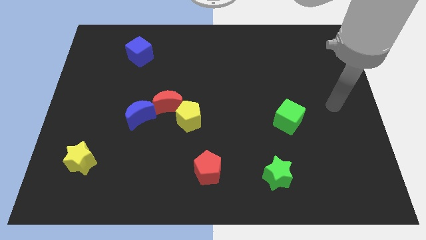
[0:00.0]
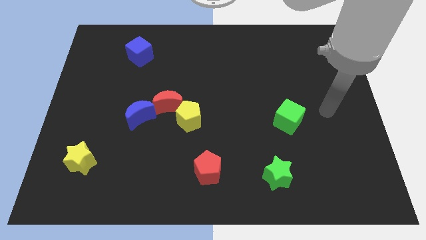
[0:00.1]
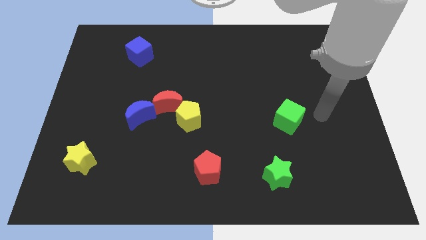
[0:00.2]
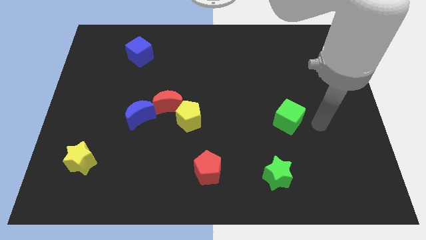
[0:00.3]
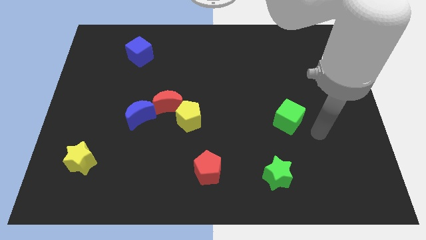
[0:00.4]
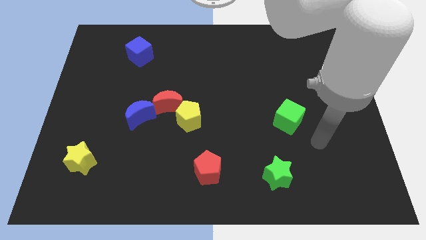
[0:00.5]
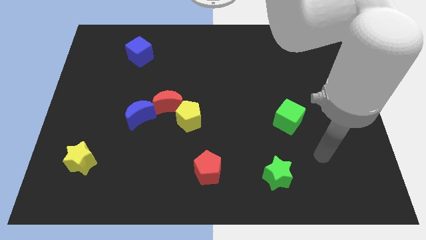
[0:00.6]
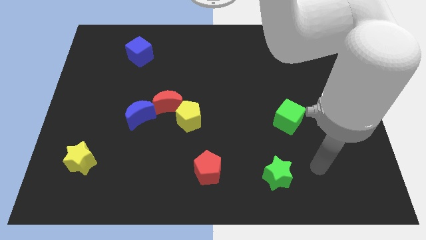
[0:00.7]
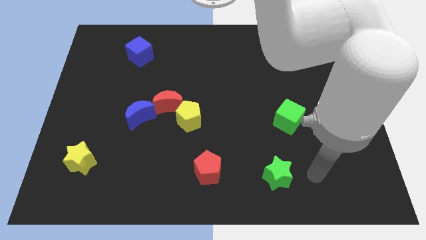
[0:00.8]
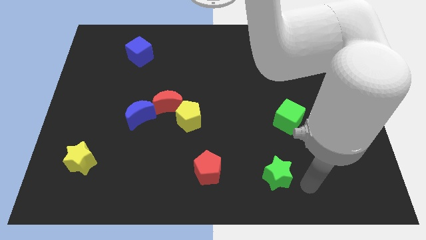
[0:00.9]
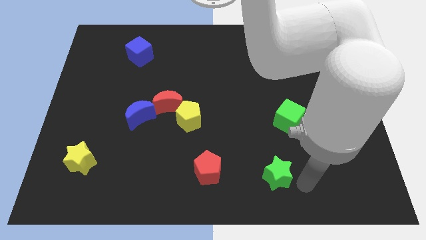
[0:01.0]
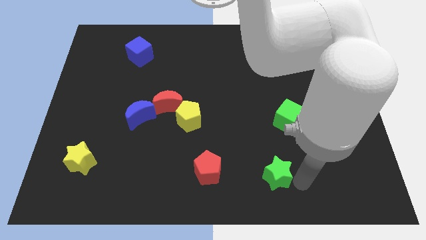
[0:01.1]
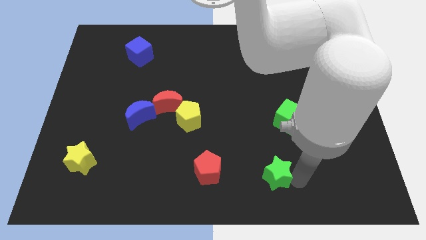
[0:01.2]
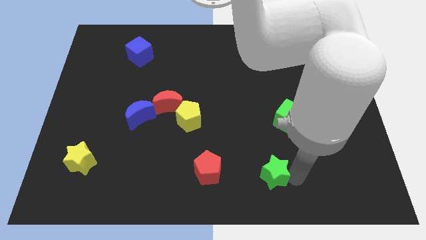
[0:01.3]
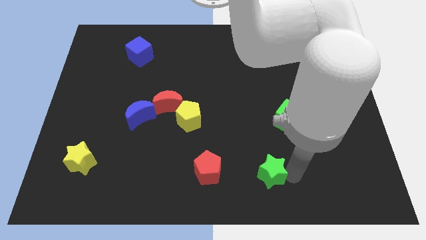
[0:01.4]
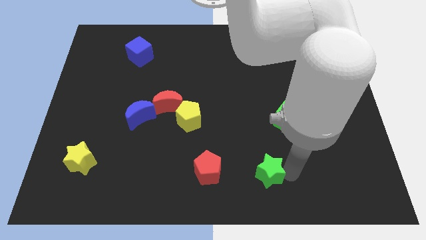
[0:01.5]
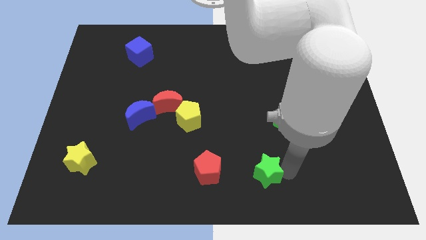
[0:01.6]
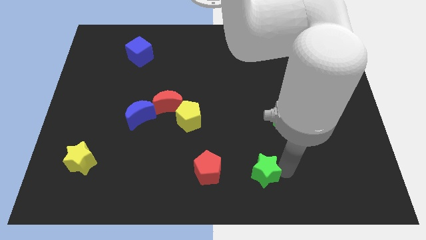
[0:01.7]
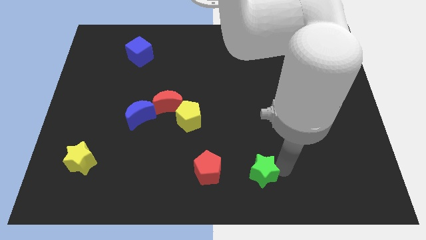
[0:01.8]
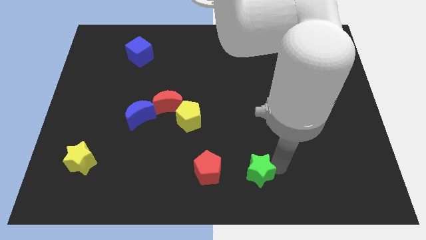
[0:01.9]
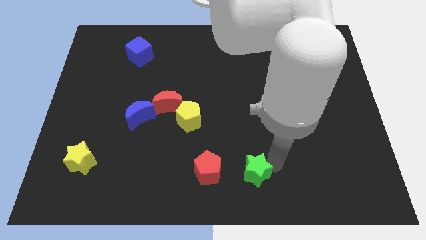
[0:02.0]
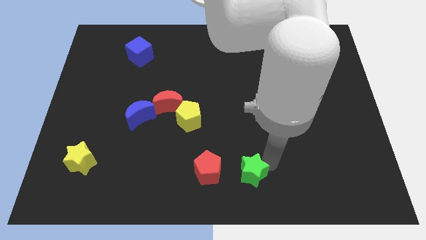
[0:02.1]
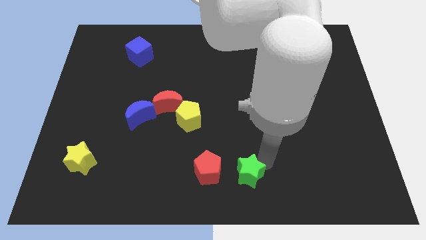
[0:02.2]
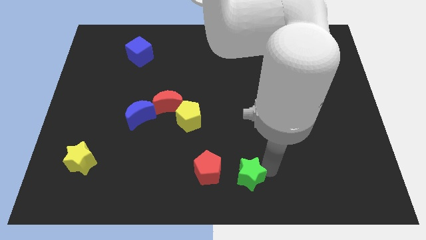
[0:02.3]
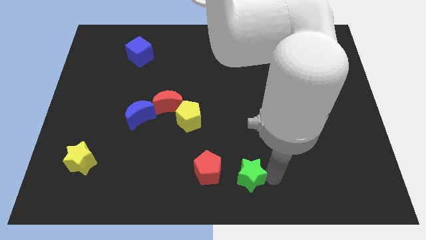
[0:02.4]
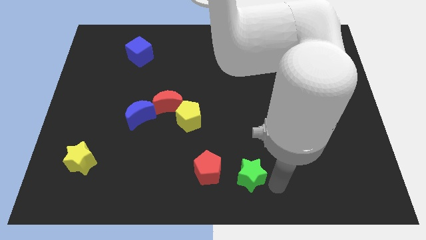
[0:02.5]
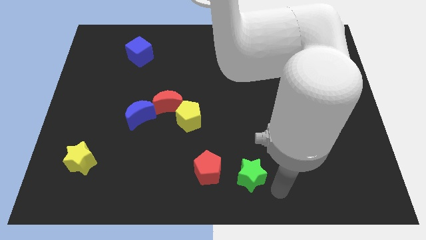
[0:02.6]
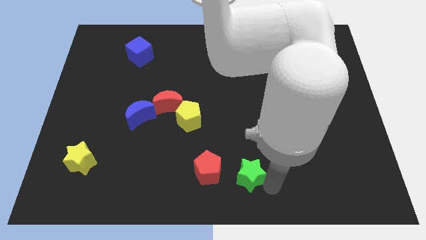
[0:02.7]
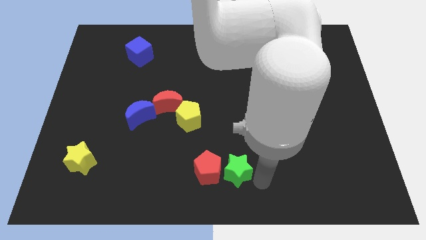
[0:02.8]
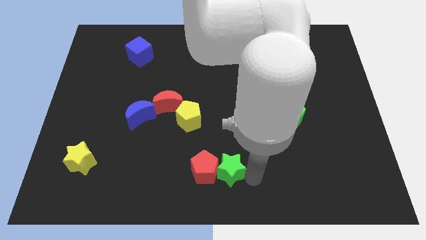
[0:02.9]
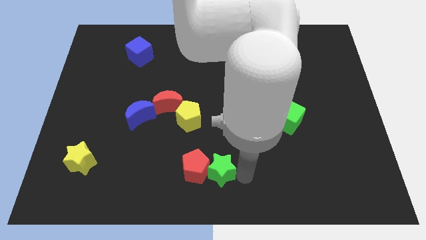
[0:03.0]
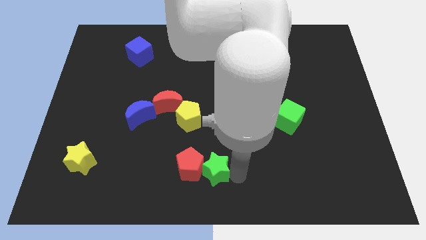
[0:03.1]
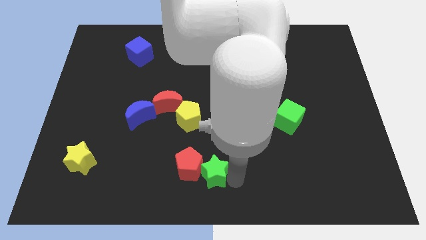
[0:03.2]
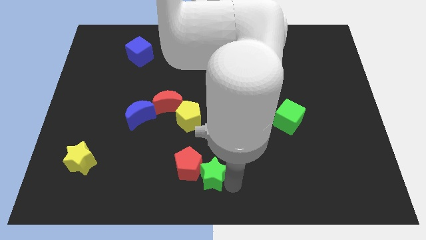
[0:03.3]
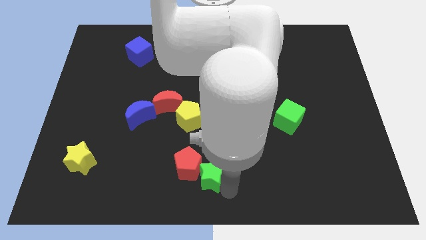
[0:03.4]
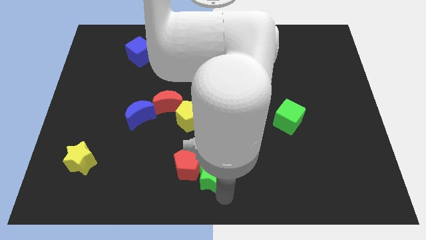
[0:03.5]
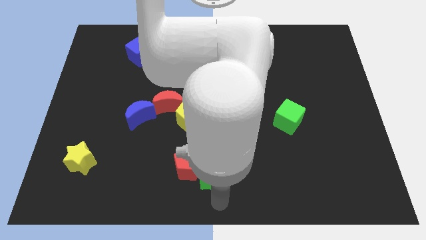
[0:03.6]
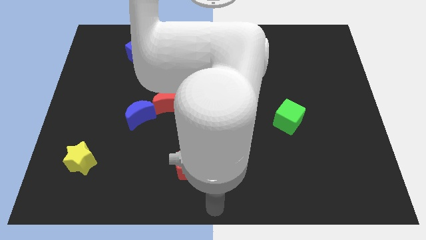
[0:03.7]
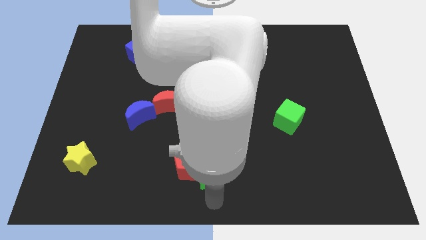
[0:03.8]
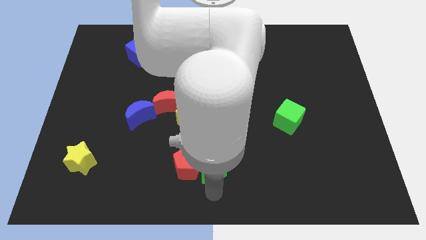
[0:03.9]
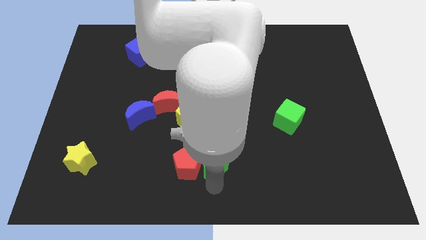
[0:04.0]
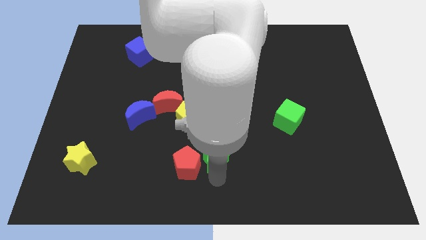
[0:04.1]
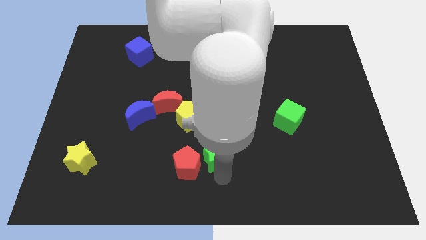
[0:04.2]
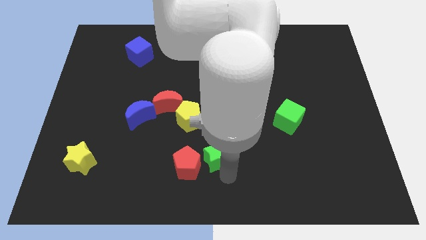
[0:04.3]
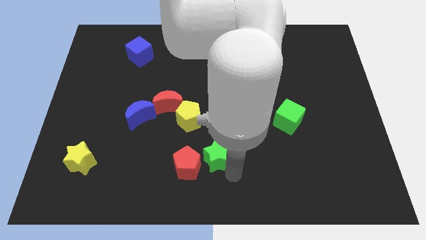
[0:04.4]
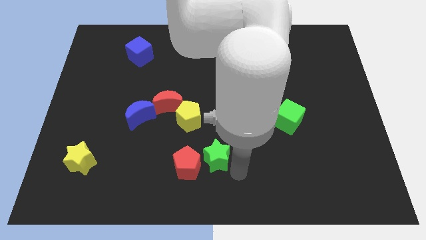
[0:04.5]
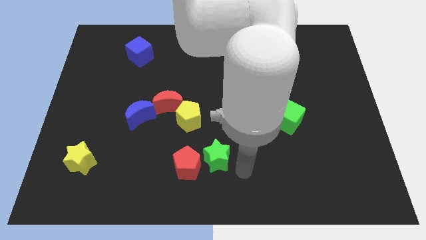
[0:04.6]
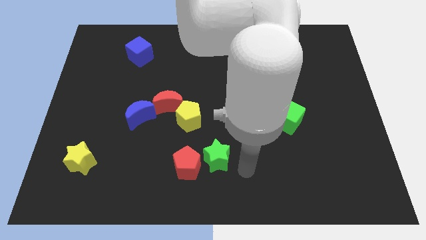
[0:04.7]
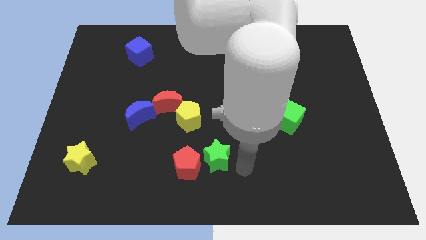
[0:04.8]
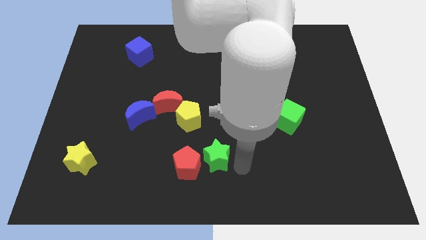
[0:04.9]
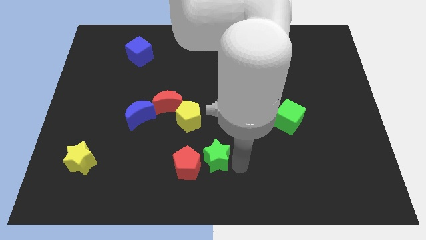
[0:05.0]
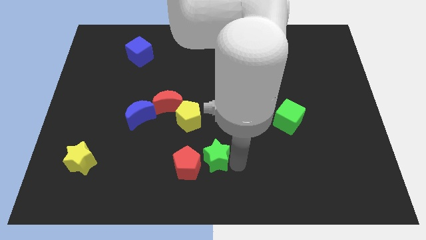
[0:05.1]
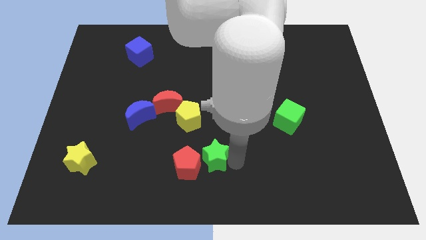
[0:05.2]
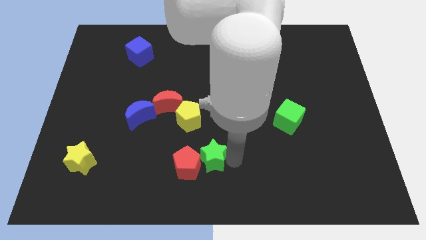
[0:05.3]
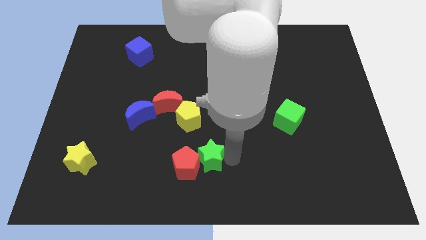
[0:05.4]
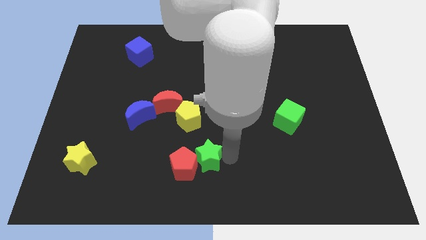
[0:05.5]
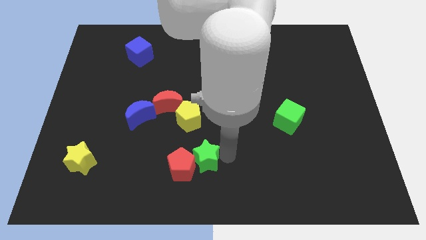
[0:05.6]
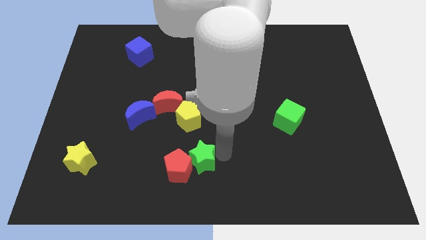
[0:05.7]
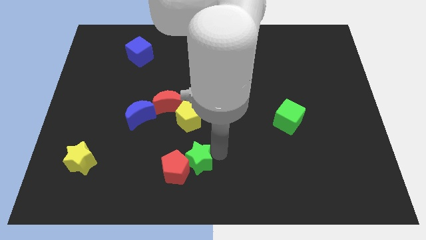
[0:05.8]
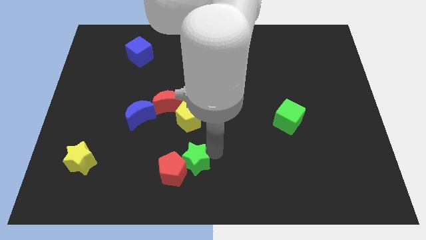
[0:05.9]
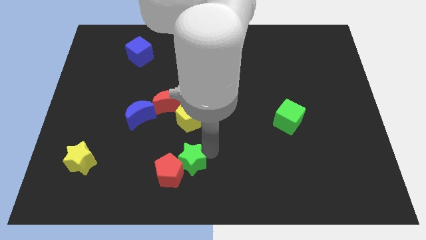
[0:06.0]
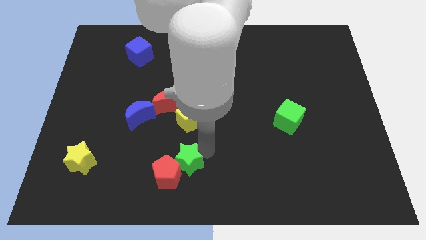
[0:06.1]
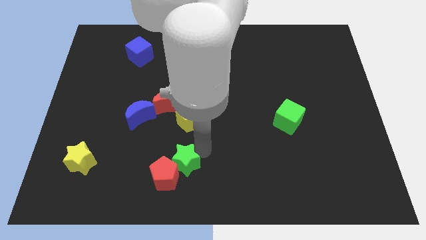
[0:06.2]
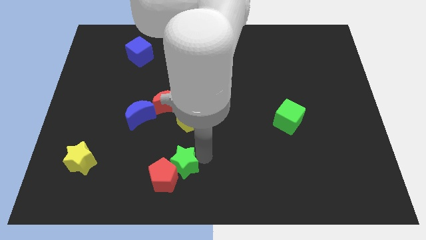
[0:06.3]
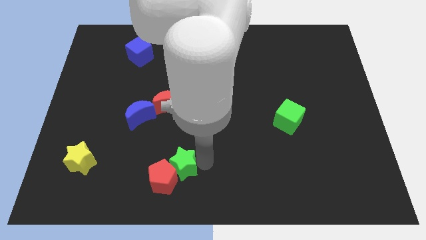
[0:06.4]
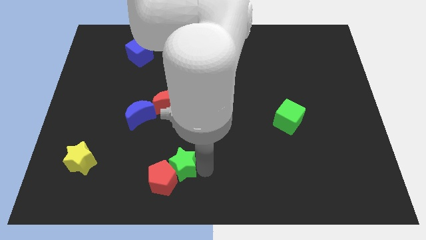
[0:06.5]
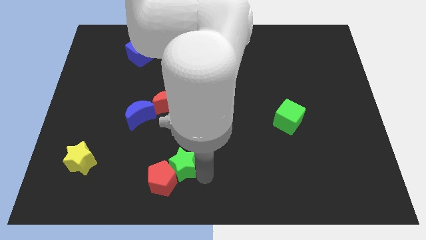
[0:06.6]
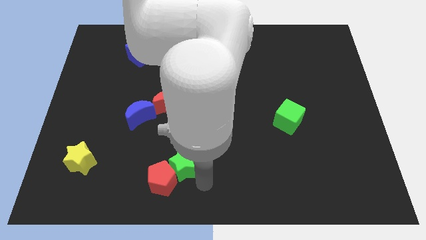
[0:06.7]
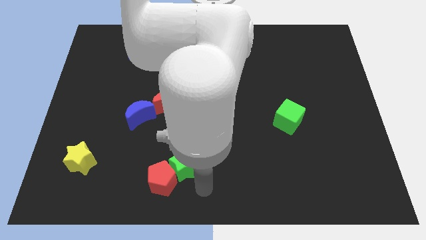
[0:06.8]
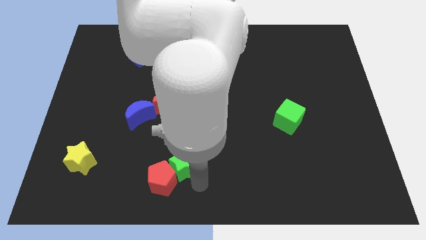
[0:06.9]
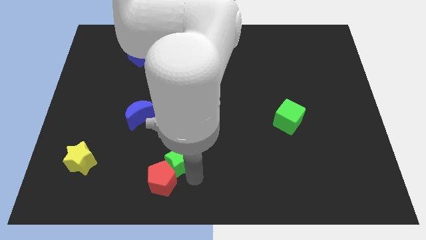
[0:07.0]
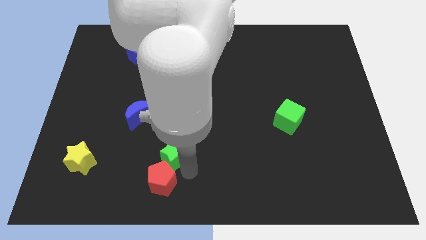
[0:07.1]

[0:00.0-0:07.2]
put the green star below the red moon

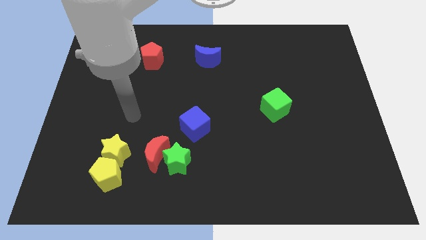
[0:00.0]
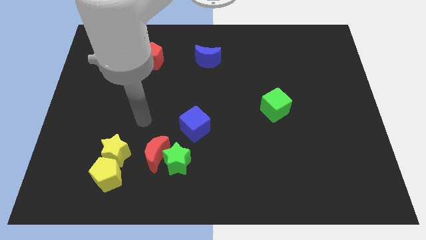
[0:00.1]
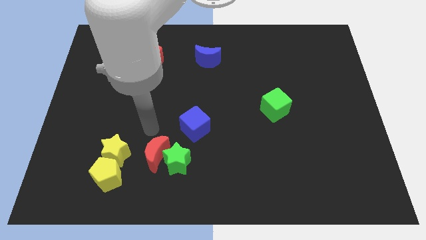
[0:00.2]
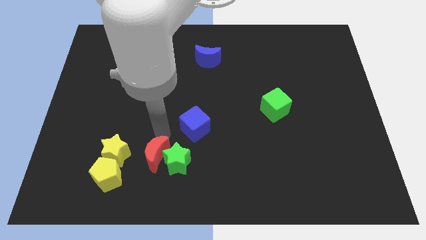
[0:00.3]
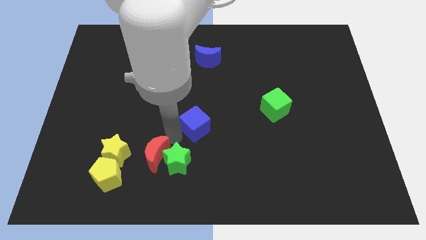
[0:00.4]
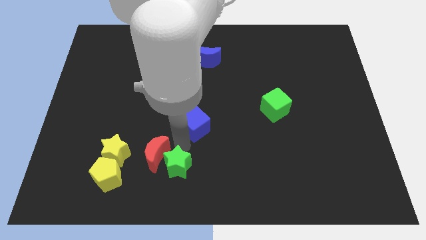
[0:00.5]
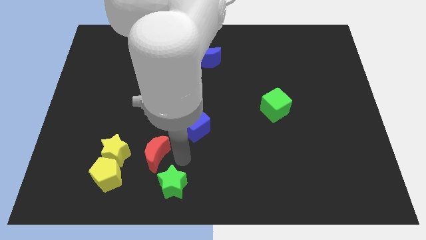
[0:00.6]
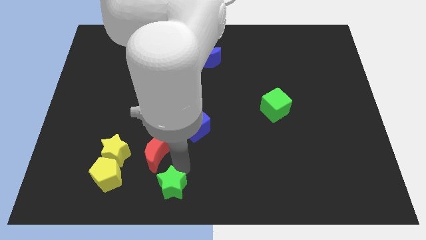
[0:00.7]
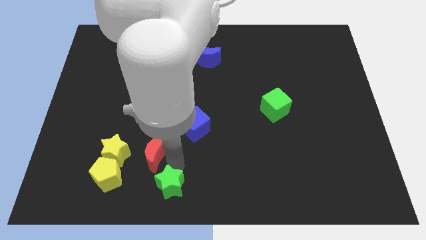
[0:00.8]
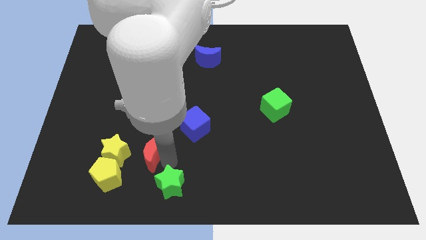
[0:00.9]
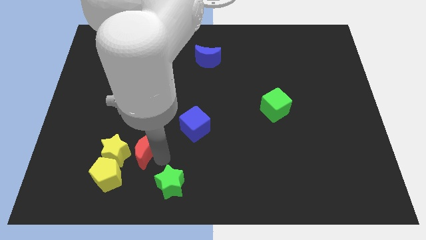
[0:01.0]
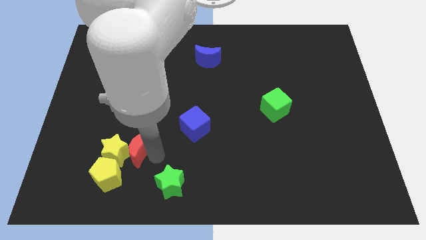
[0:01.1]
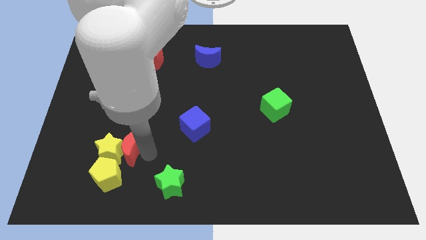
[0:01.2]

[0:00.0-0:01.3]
push the red moon to the top of the yellow pentagon
